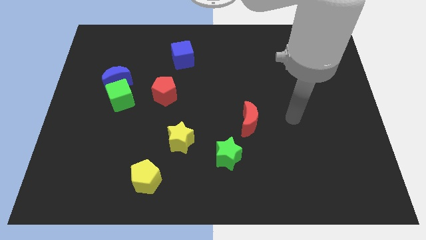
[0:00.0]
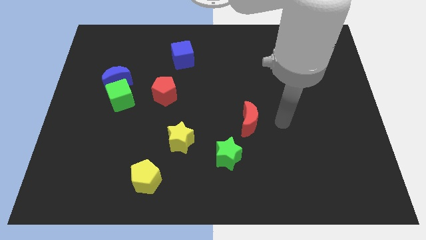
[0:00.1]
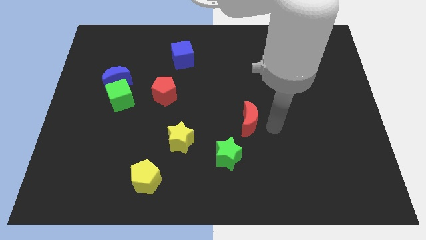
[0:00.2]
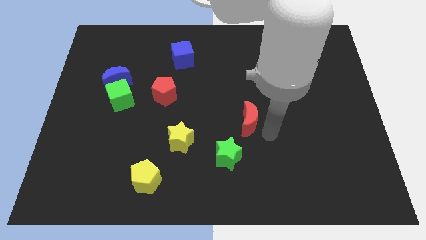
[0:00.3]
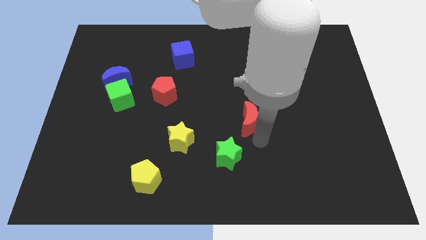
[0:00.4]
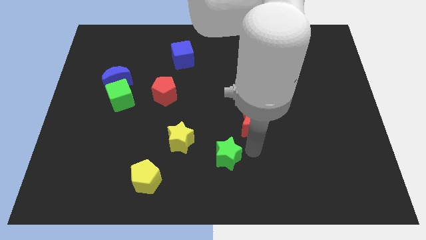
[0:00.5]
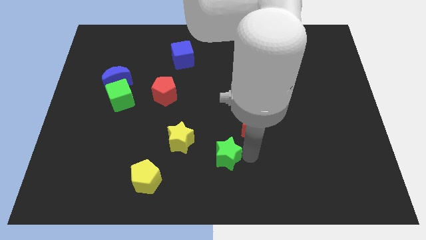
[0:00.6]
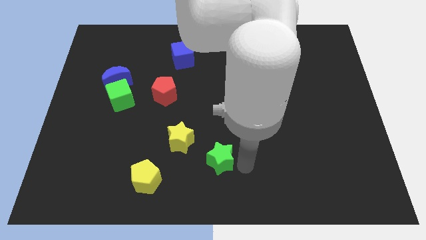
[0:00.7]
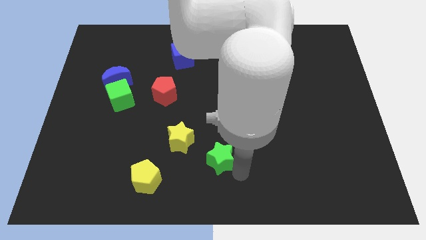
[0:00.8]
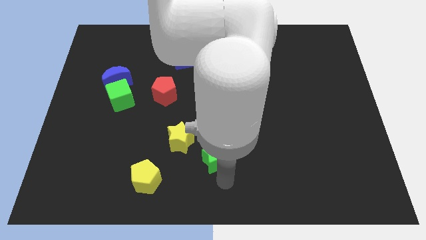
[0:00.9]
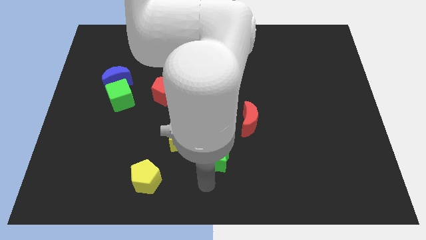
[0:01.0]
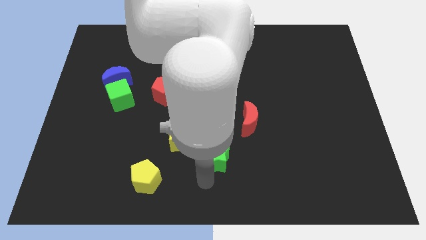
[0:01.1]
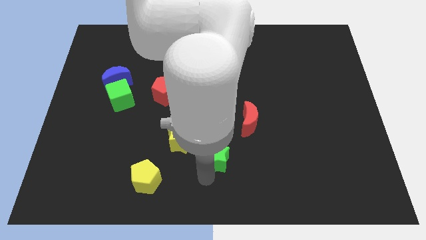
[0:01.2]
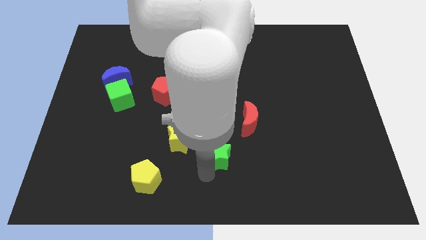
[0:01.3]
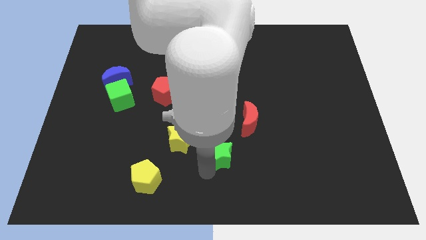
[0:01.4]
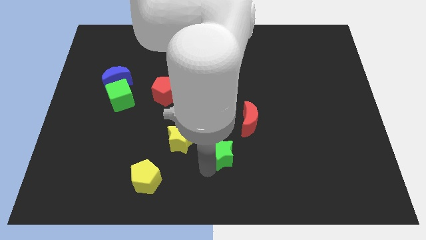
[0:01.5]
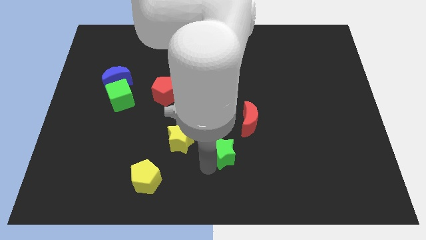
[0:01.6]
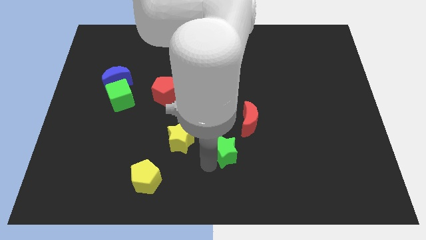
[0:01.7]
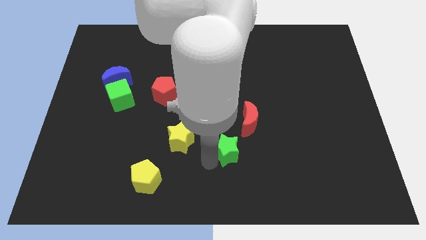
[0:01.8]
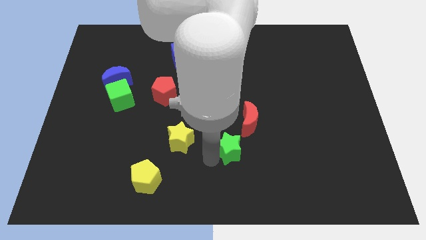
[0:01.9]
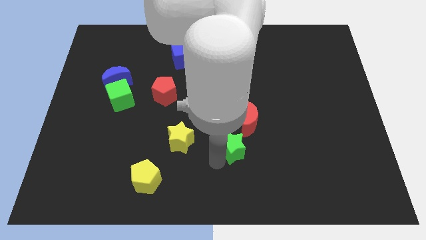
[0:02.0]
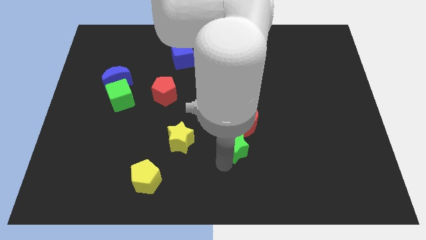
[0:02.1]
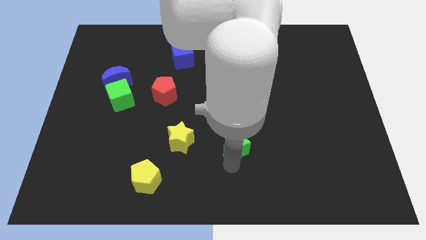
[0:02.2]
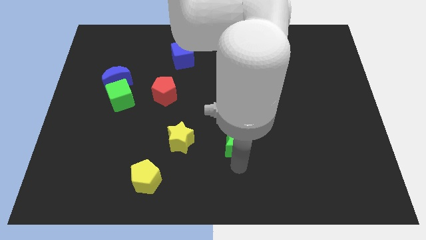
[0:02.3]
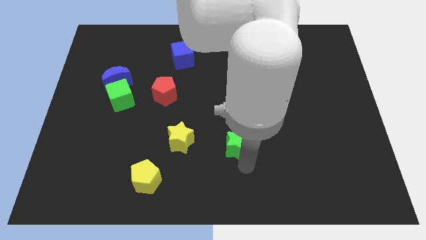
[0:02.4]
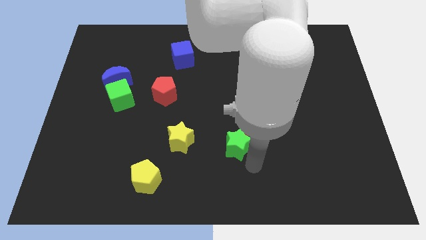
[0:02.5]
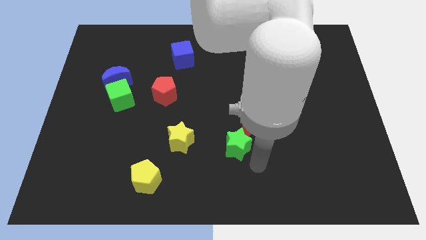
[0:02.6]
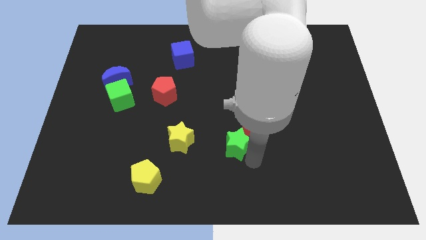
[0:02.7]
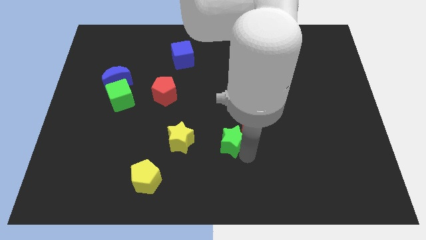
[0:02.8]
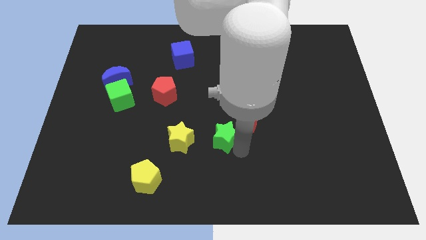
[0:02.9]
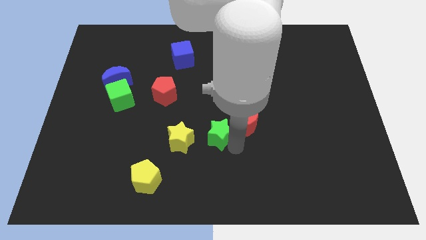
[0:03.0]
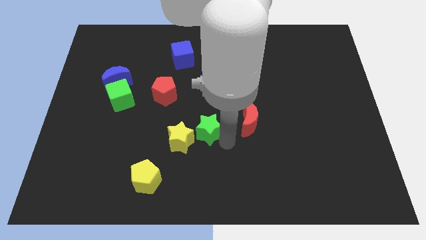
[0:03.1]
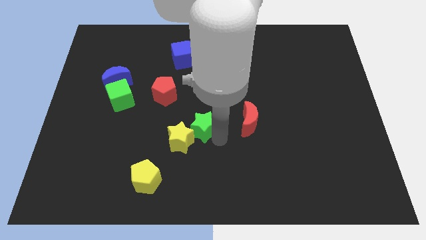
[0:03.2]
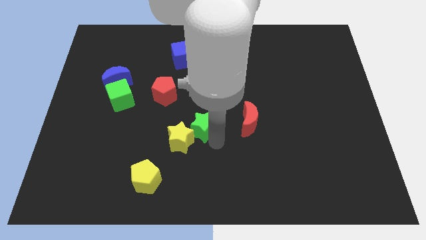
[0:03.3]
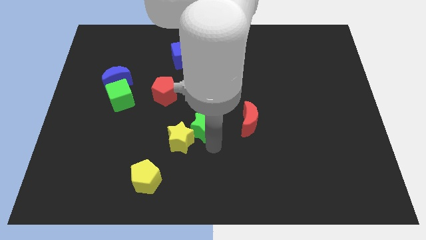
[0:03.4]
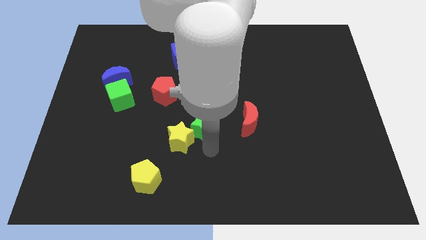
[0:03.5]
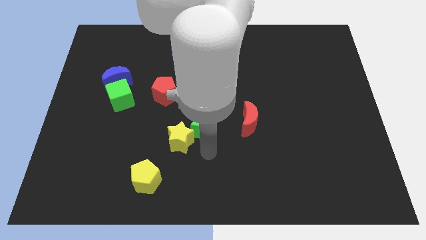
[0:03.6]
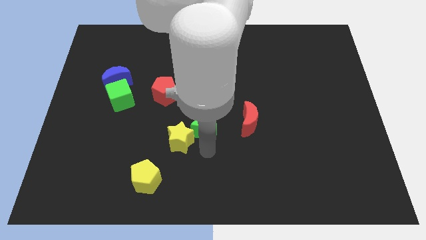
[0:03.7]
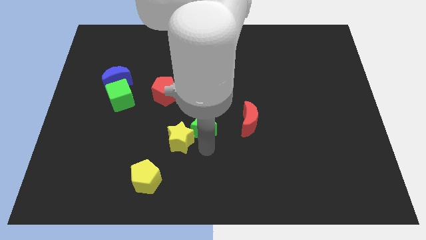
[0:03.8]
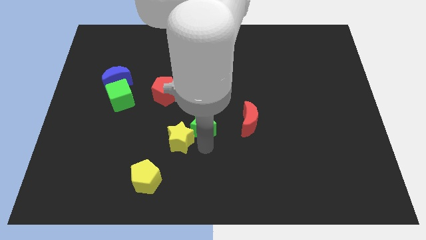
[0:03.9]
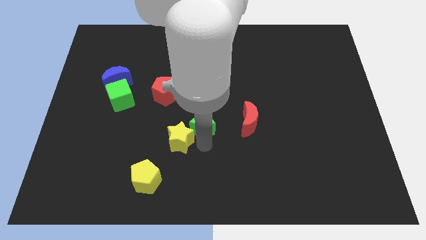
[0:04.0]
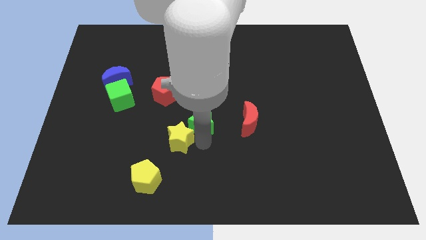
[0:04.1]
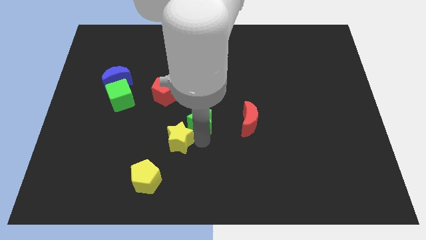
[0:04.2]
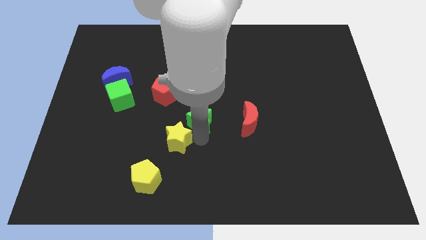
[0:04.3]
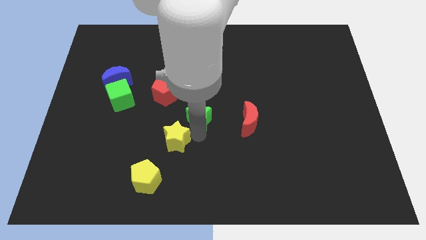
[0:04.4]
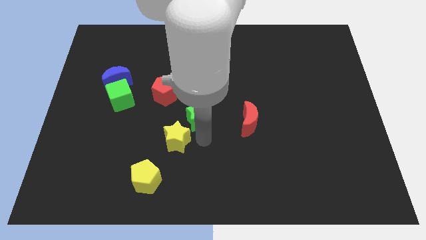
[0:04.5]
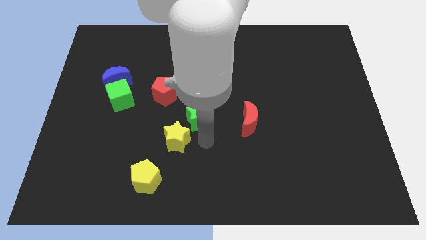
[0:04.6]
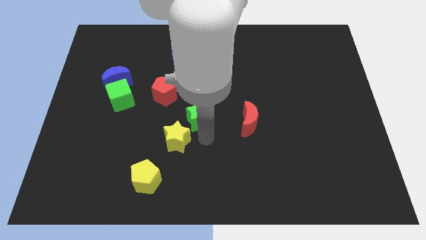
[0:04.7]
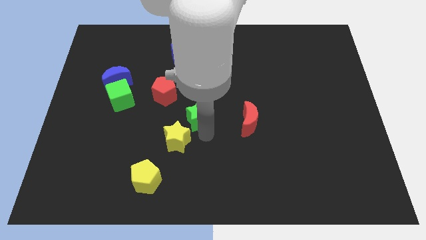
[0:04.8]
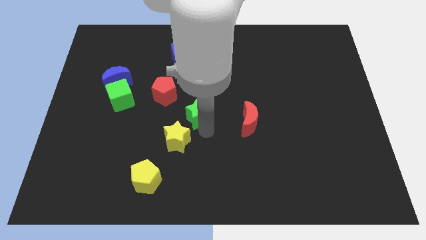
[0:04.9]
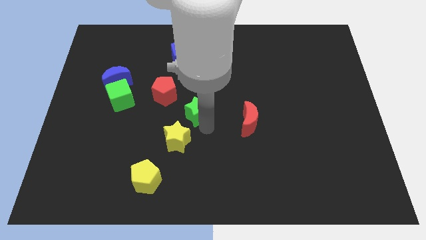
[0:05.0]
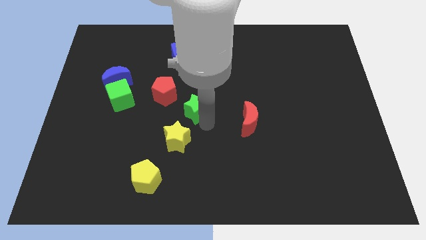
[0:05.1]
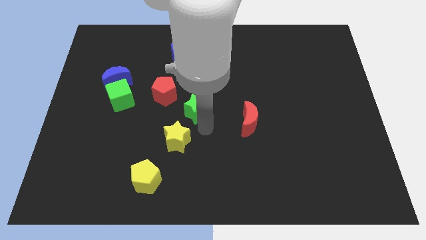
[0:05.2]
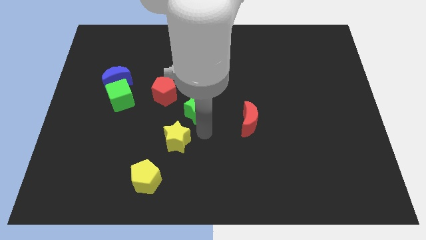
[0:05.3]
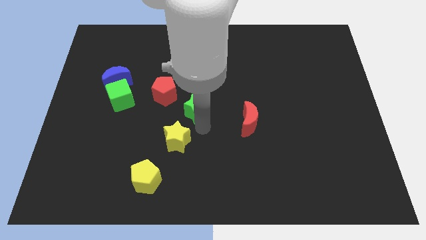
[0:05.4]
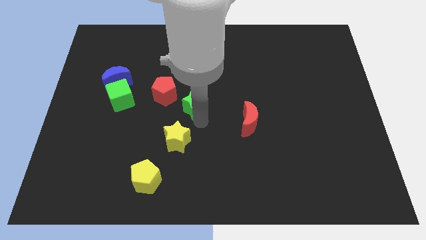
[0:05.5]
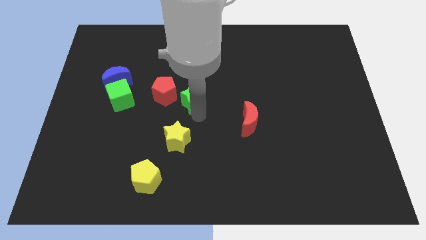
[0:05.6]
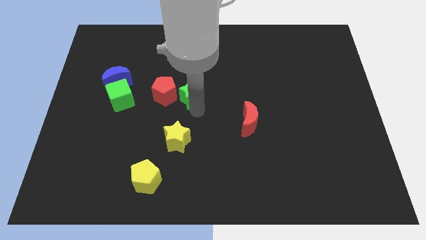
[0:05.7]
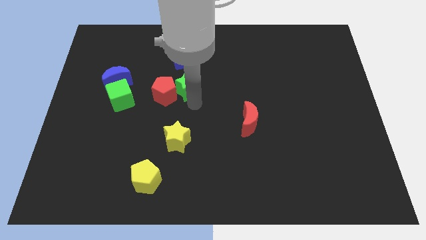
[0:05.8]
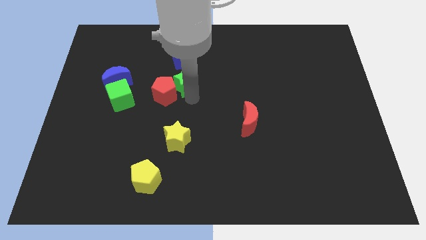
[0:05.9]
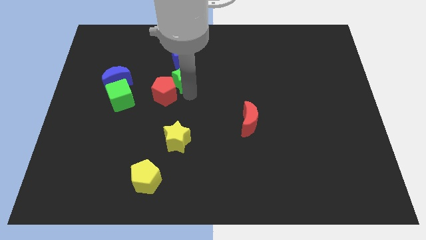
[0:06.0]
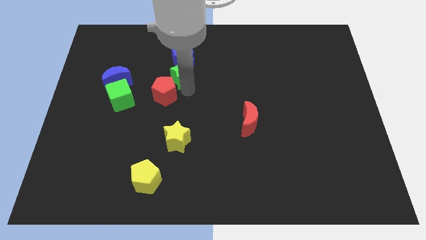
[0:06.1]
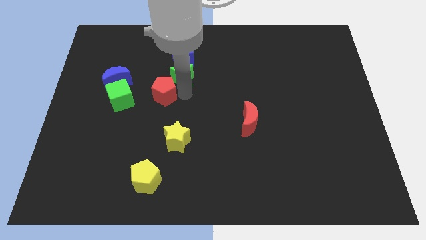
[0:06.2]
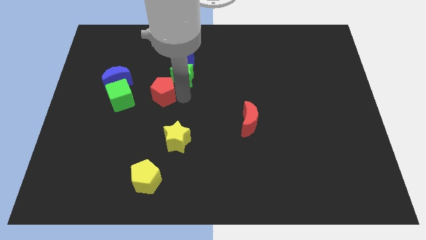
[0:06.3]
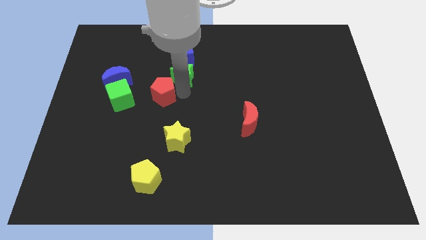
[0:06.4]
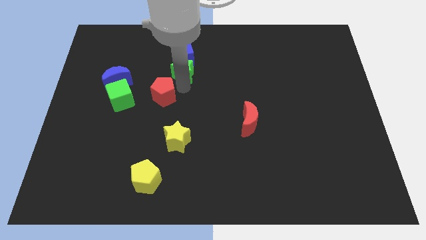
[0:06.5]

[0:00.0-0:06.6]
slide the green star to the blue cube

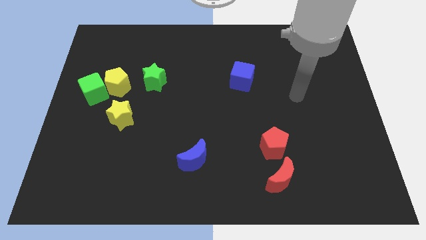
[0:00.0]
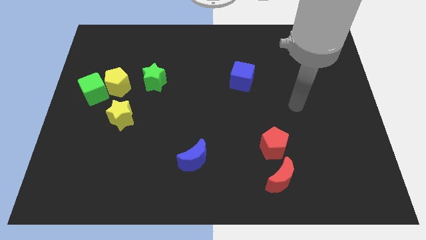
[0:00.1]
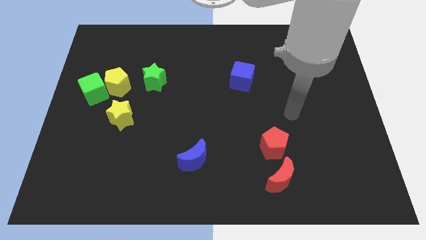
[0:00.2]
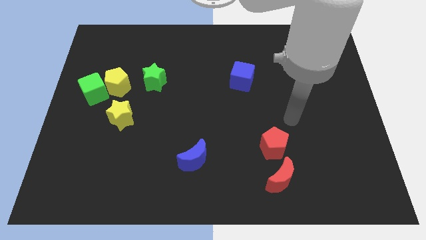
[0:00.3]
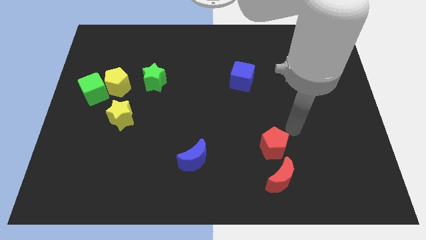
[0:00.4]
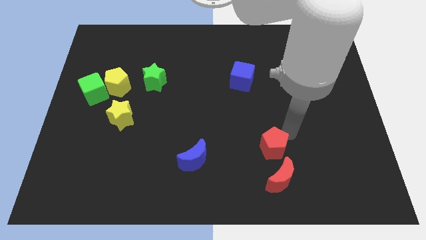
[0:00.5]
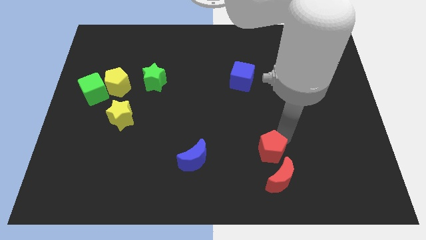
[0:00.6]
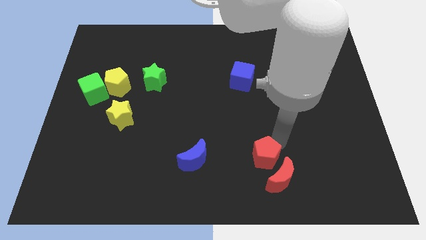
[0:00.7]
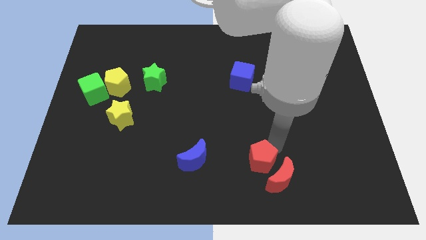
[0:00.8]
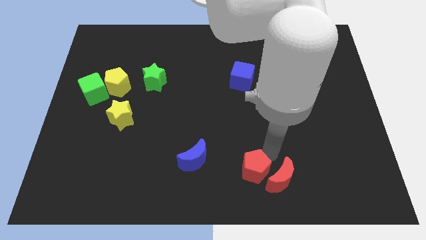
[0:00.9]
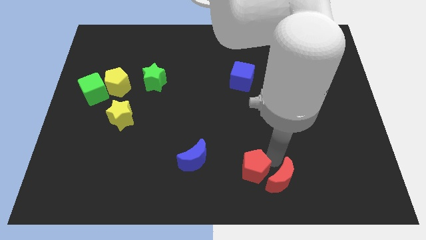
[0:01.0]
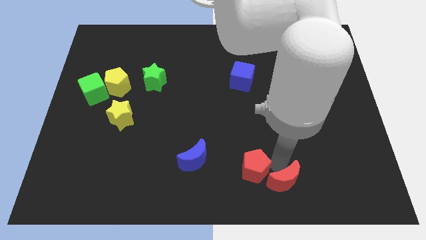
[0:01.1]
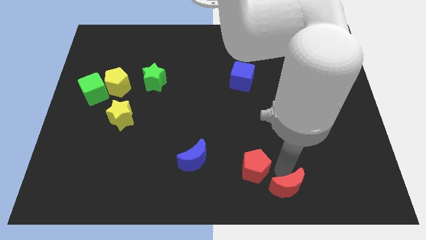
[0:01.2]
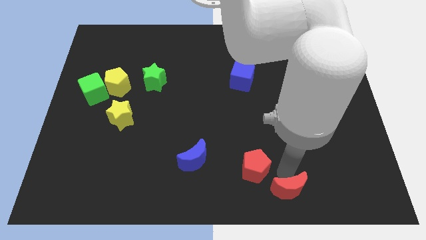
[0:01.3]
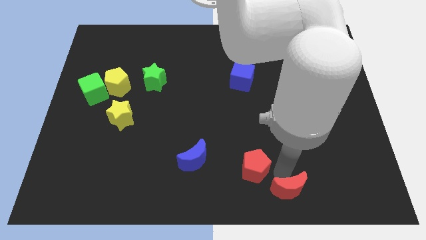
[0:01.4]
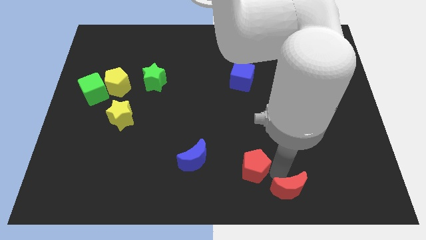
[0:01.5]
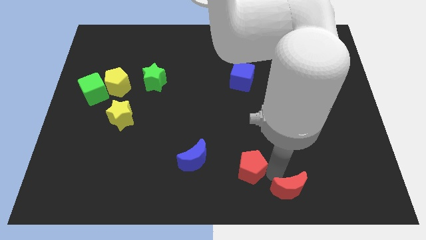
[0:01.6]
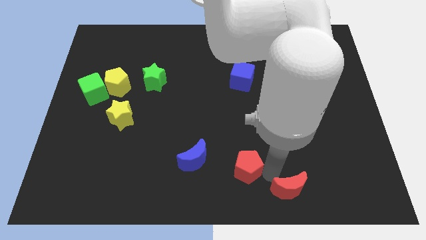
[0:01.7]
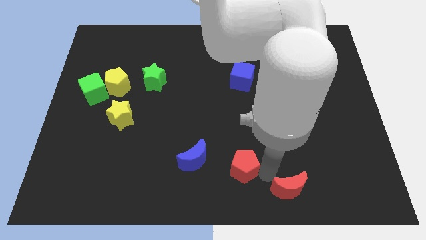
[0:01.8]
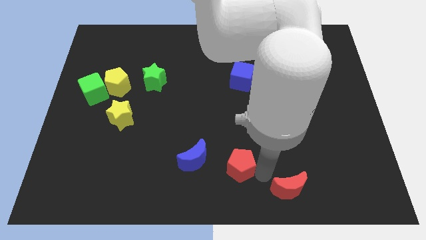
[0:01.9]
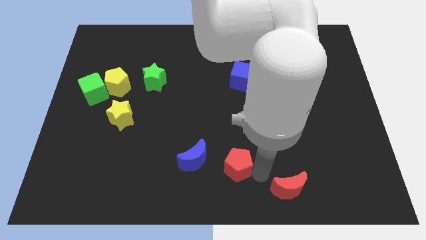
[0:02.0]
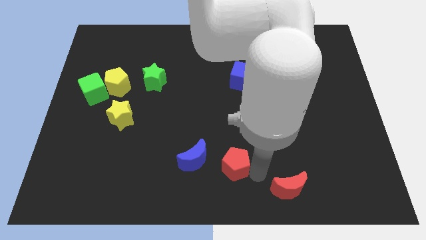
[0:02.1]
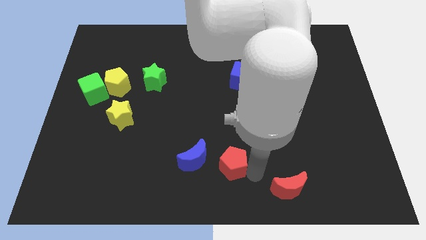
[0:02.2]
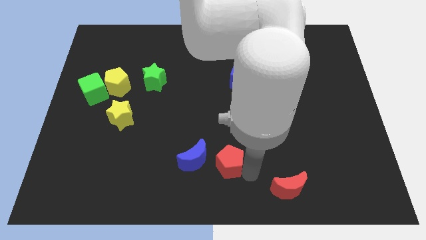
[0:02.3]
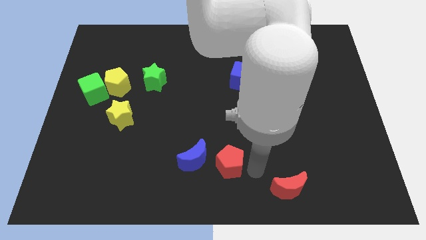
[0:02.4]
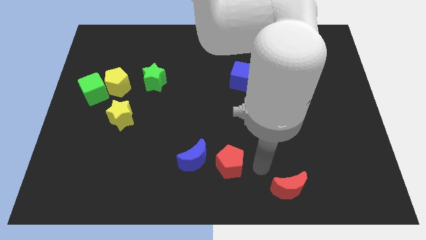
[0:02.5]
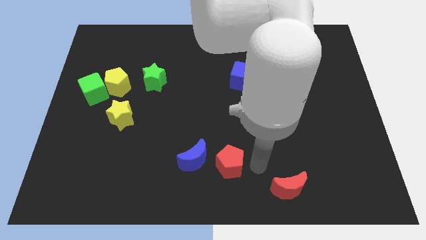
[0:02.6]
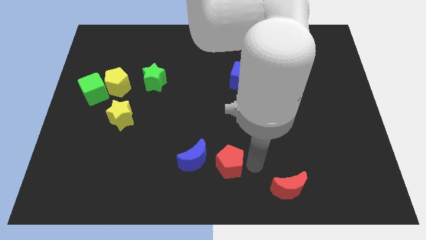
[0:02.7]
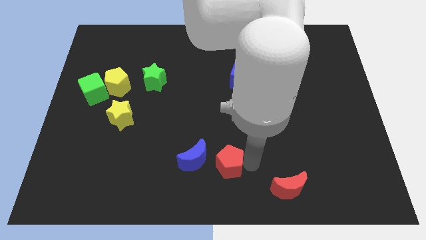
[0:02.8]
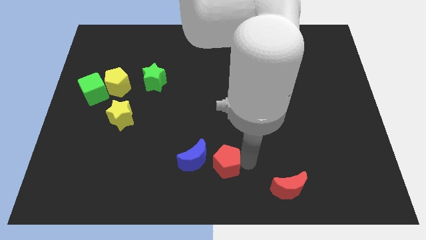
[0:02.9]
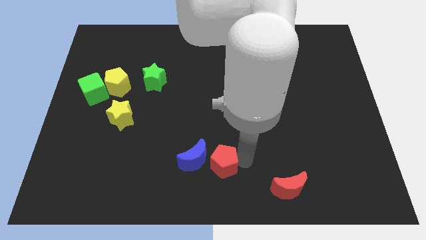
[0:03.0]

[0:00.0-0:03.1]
slide the red pentagon towards the blue moon
